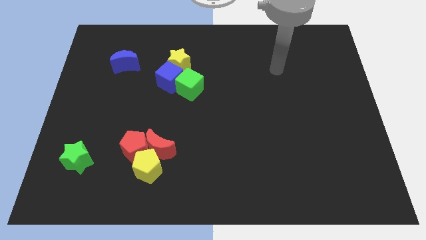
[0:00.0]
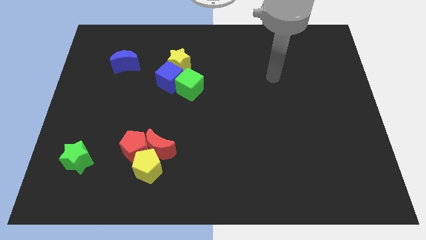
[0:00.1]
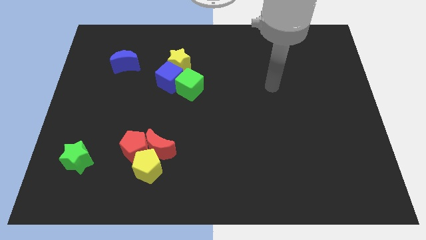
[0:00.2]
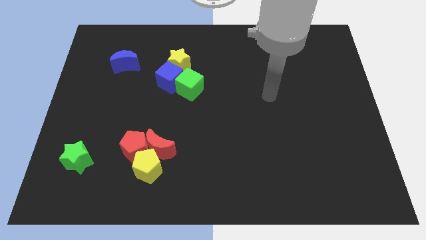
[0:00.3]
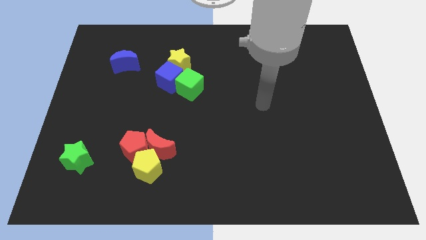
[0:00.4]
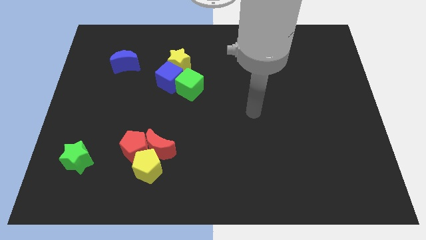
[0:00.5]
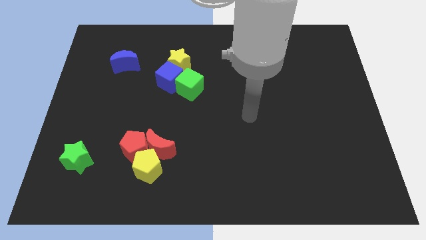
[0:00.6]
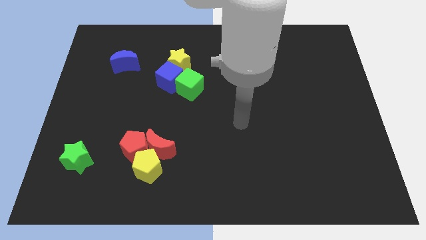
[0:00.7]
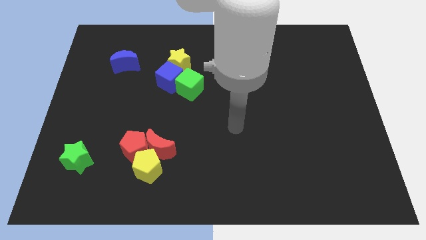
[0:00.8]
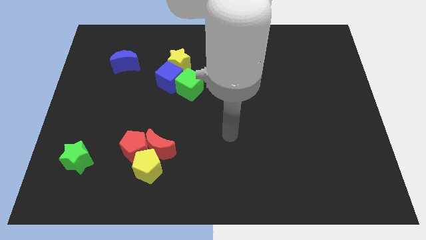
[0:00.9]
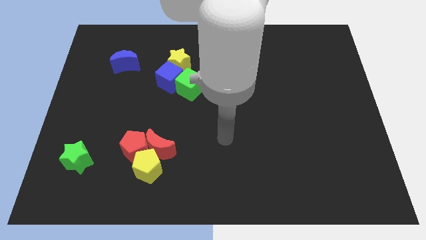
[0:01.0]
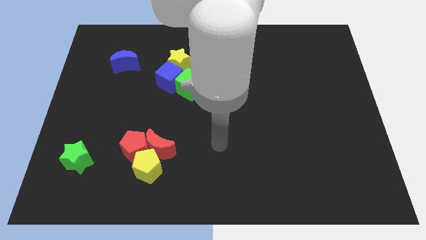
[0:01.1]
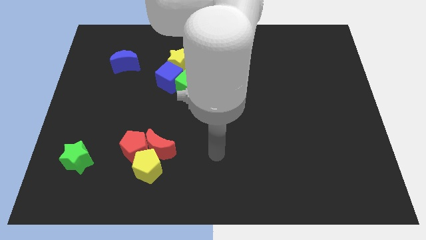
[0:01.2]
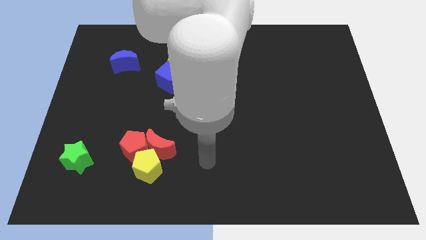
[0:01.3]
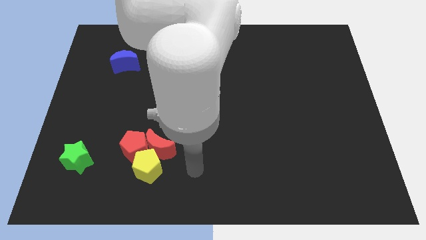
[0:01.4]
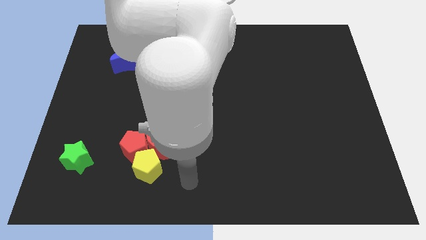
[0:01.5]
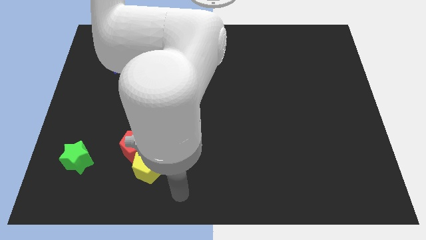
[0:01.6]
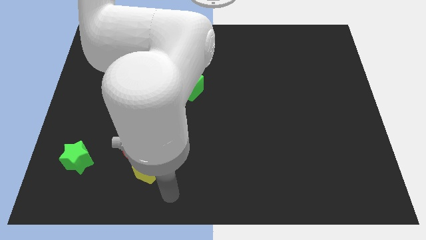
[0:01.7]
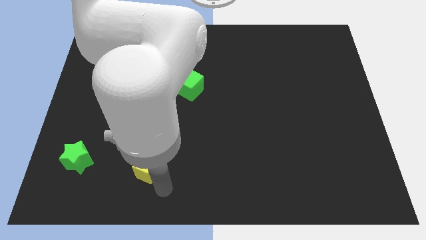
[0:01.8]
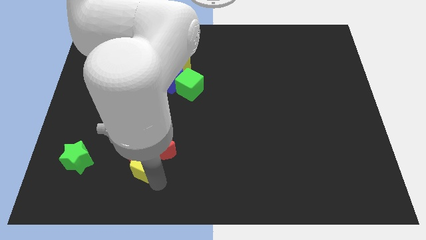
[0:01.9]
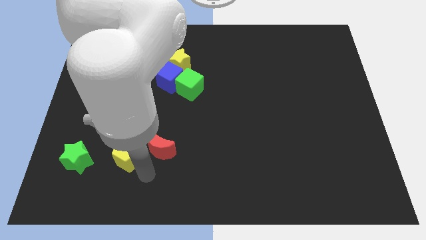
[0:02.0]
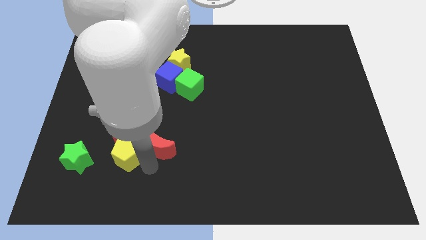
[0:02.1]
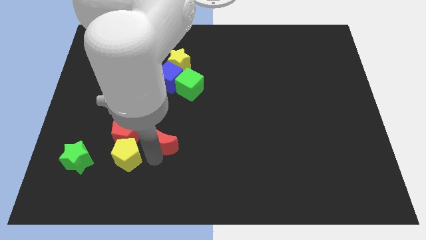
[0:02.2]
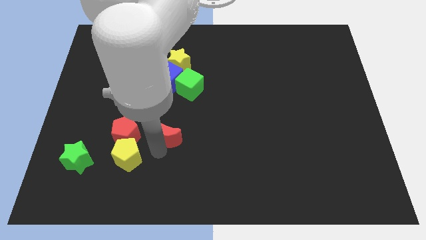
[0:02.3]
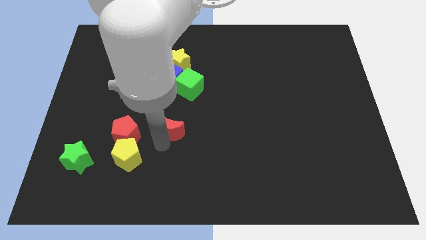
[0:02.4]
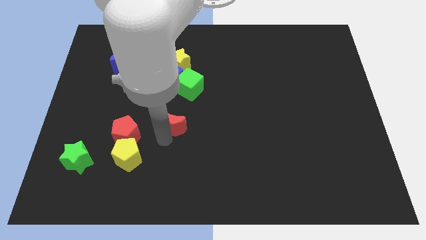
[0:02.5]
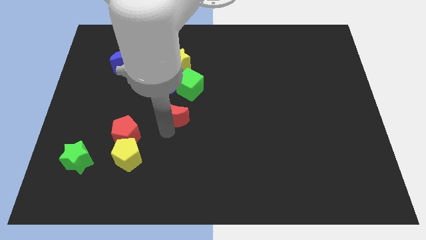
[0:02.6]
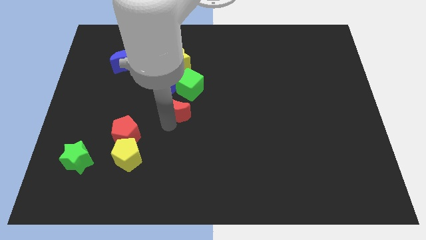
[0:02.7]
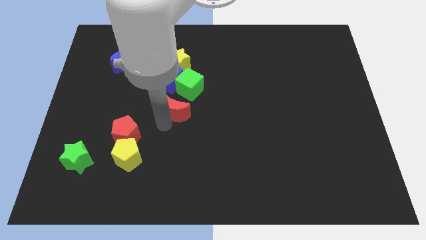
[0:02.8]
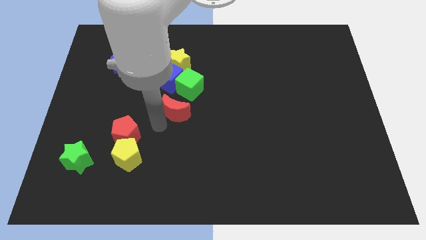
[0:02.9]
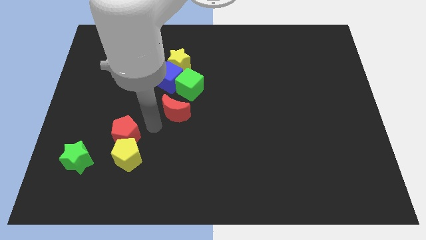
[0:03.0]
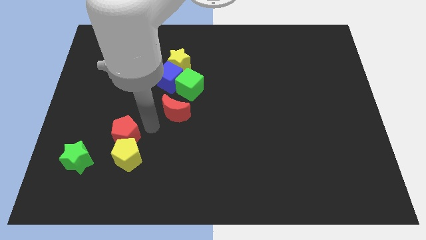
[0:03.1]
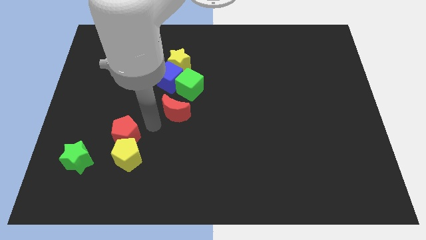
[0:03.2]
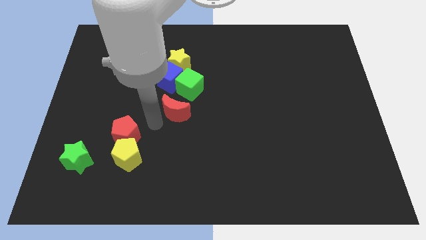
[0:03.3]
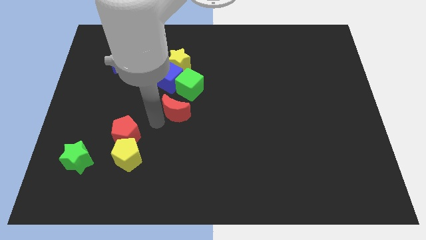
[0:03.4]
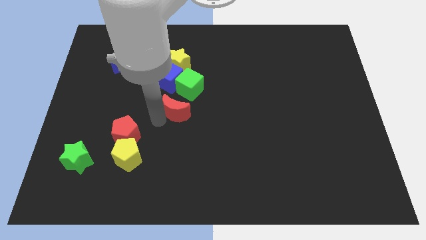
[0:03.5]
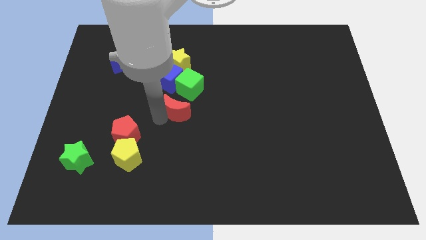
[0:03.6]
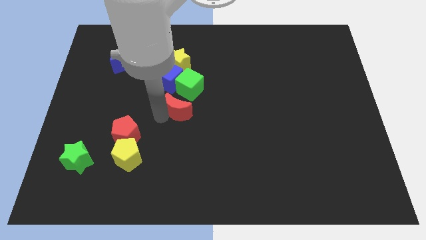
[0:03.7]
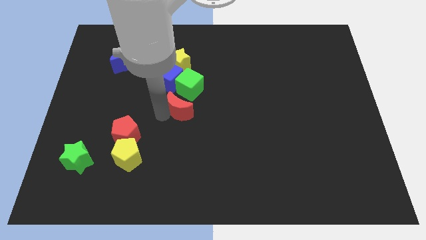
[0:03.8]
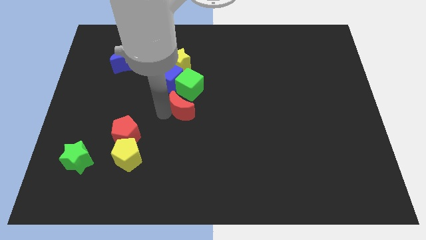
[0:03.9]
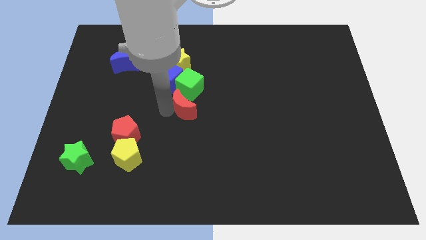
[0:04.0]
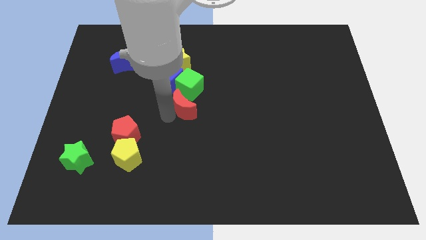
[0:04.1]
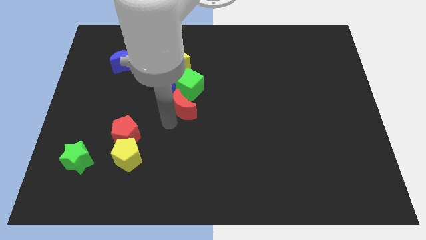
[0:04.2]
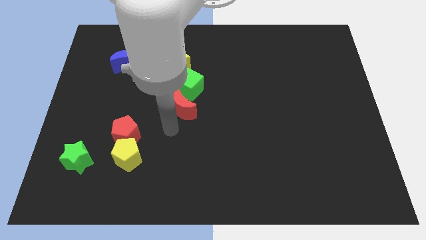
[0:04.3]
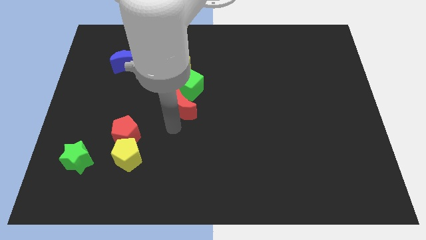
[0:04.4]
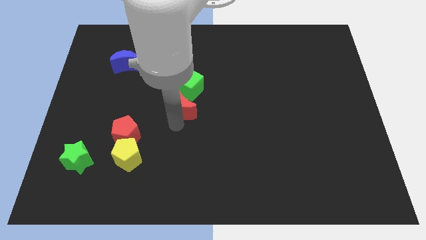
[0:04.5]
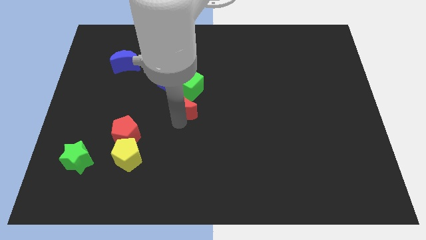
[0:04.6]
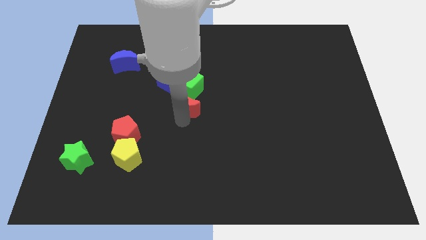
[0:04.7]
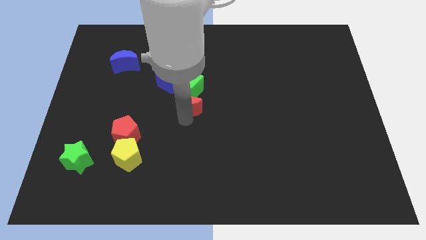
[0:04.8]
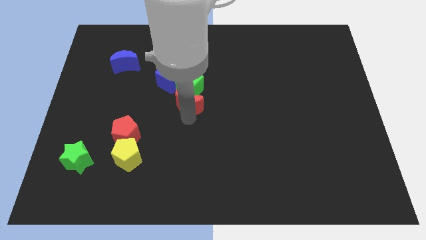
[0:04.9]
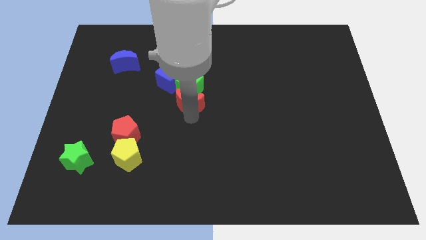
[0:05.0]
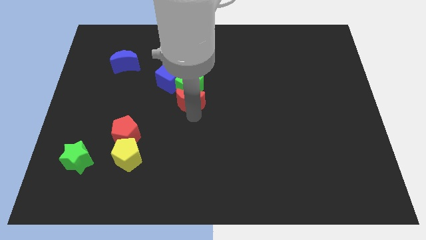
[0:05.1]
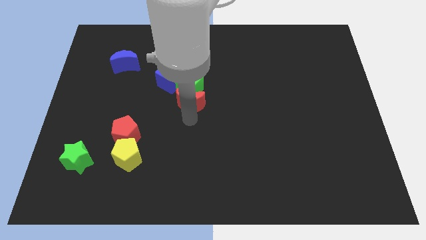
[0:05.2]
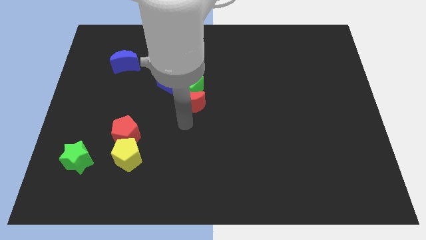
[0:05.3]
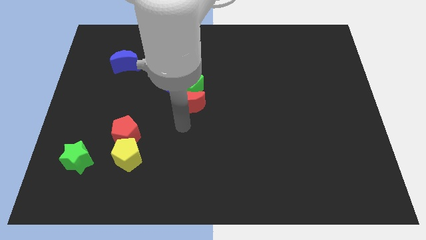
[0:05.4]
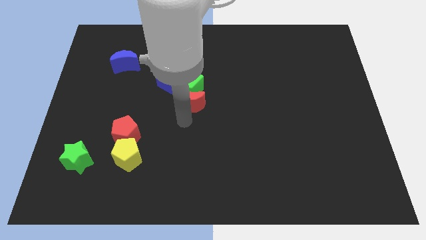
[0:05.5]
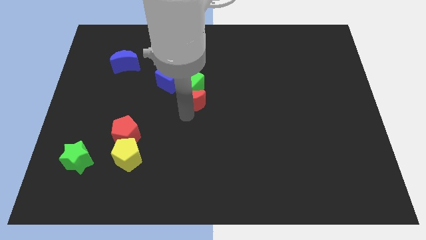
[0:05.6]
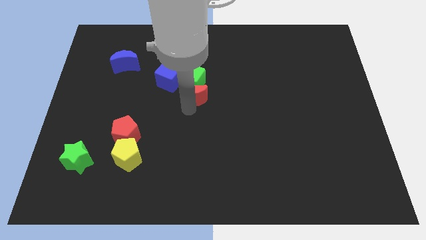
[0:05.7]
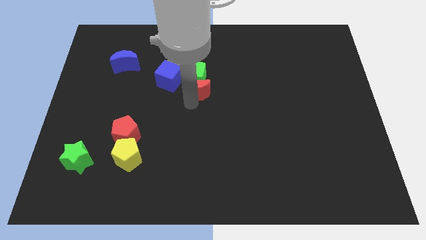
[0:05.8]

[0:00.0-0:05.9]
slide the red moon to the bottom right of the yellow star

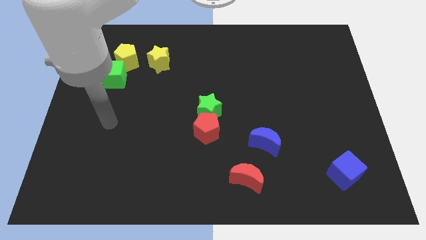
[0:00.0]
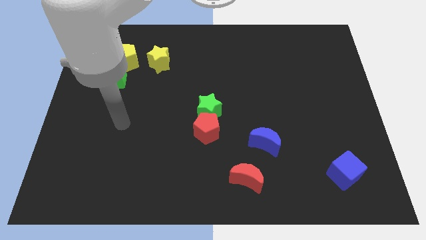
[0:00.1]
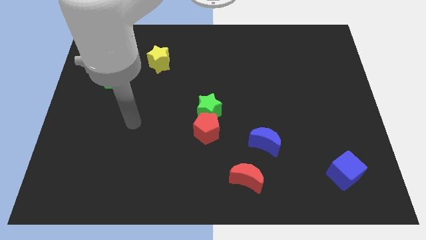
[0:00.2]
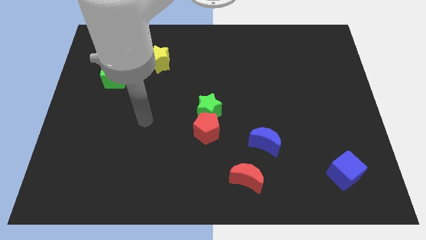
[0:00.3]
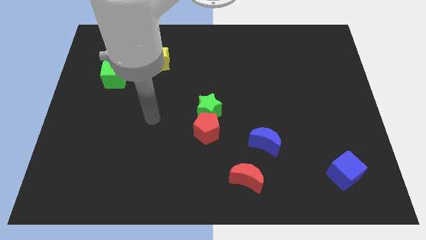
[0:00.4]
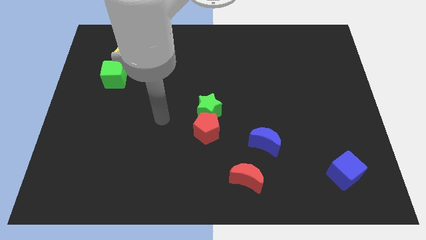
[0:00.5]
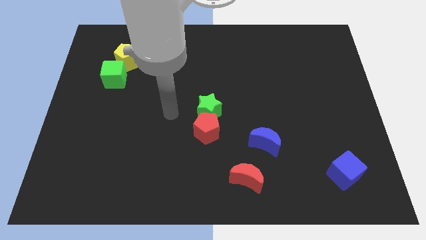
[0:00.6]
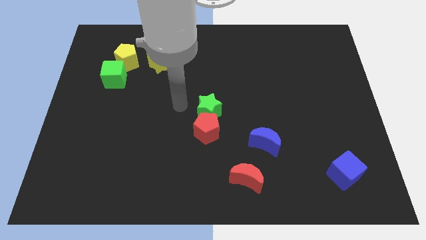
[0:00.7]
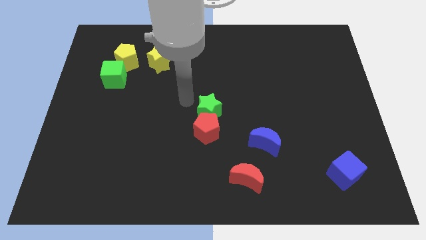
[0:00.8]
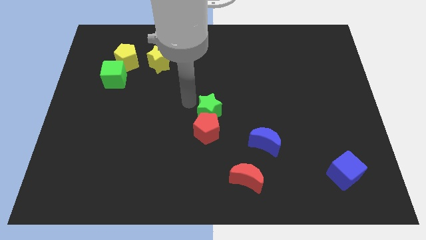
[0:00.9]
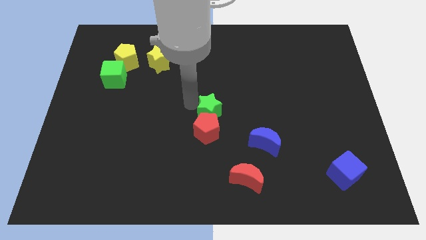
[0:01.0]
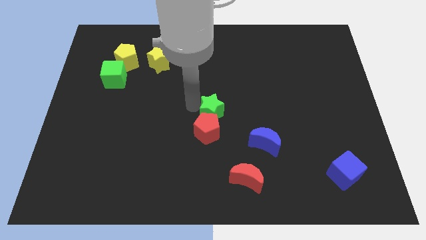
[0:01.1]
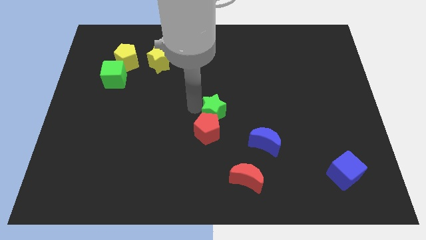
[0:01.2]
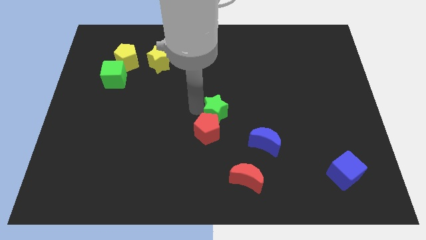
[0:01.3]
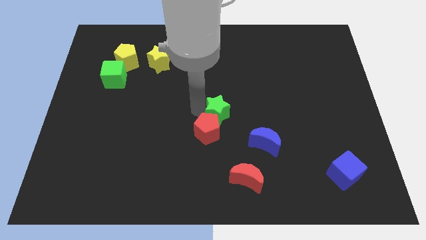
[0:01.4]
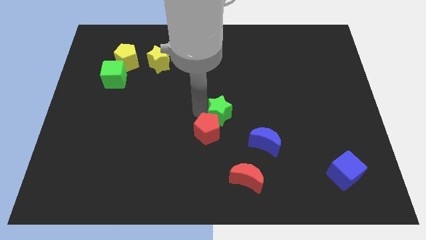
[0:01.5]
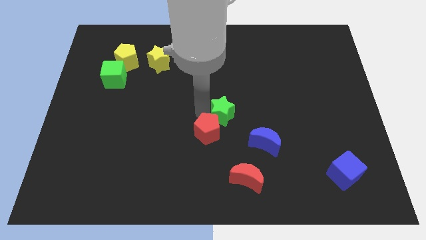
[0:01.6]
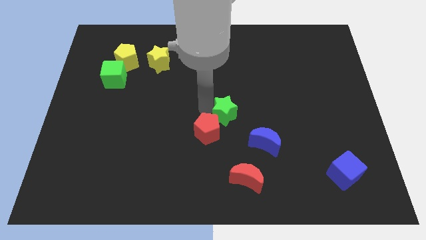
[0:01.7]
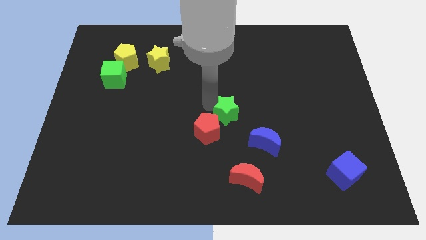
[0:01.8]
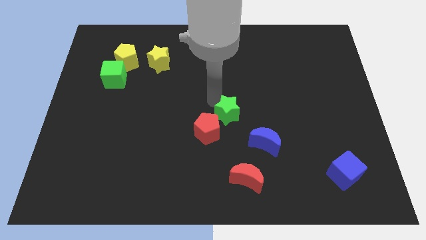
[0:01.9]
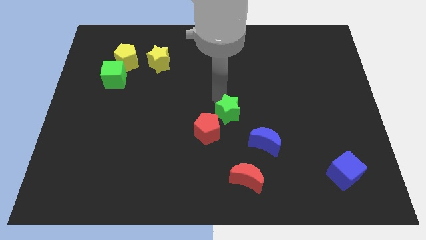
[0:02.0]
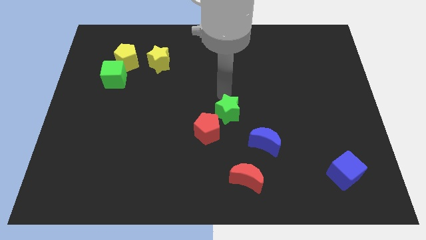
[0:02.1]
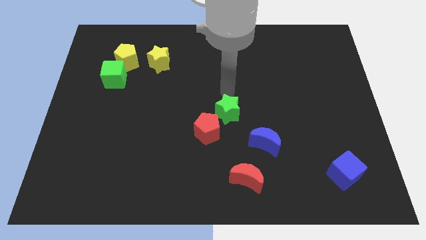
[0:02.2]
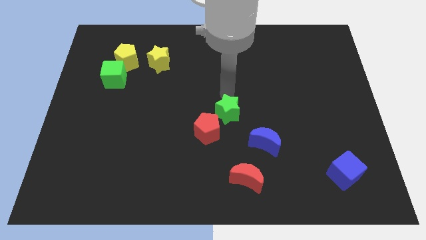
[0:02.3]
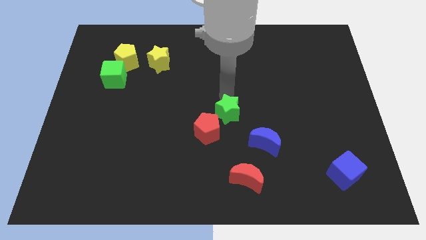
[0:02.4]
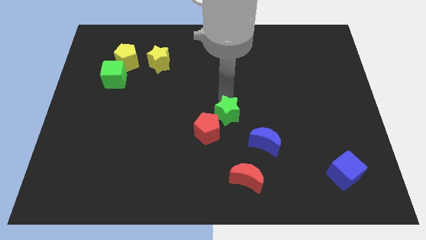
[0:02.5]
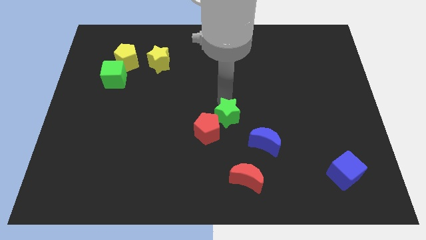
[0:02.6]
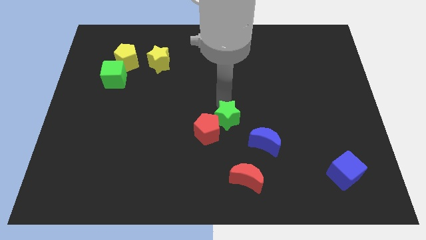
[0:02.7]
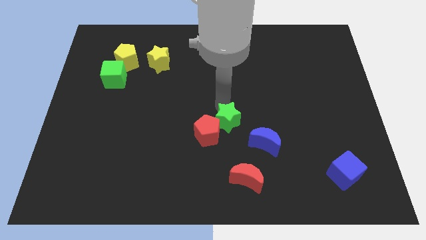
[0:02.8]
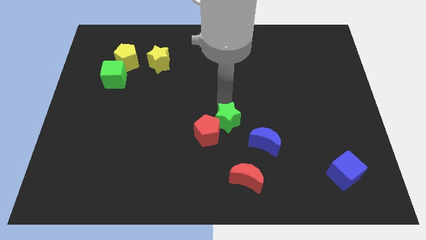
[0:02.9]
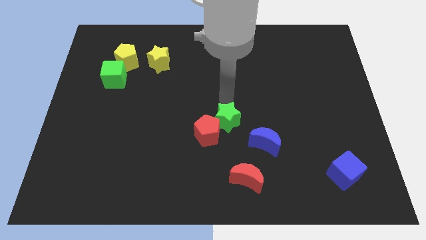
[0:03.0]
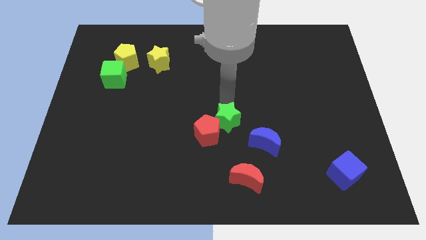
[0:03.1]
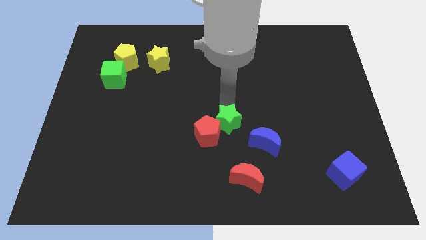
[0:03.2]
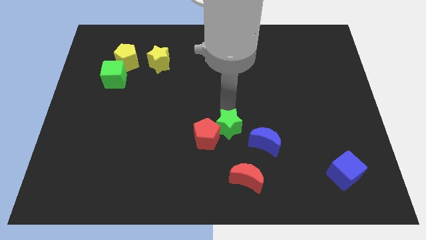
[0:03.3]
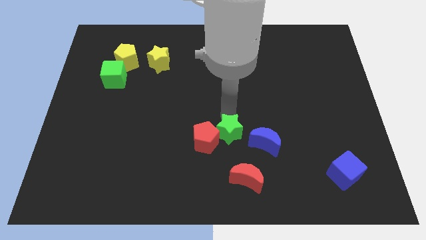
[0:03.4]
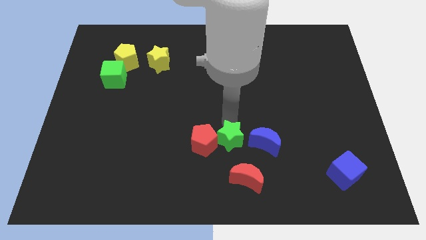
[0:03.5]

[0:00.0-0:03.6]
put the green star diagonally up and to the left of the red moon
